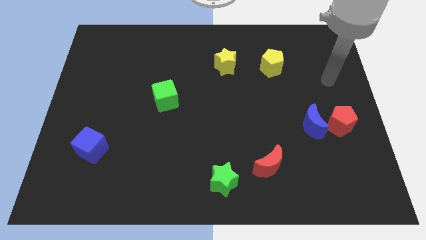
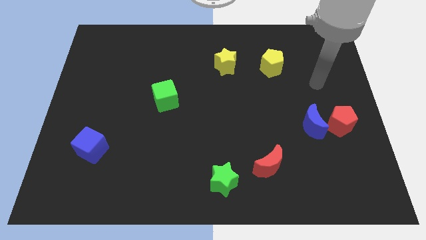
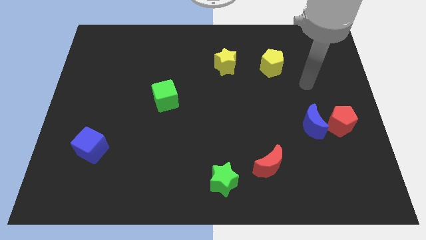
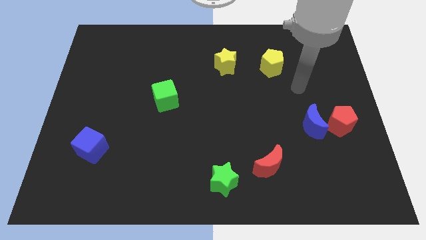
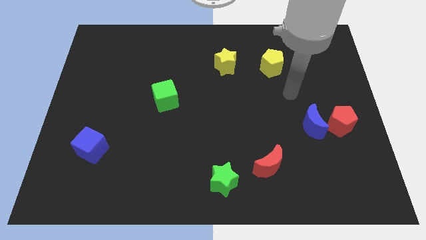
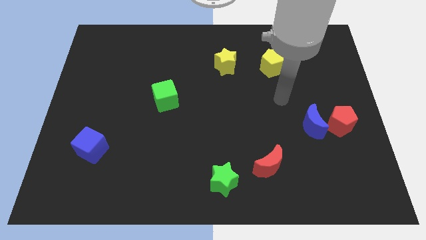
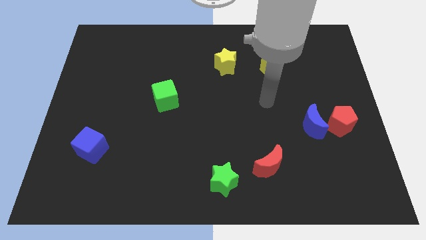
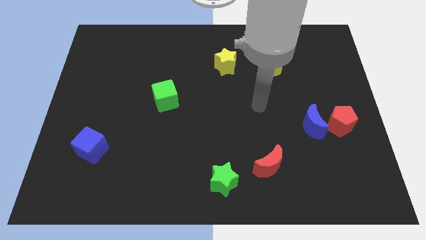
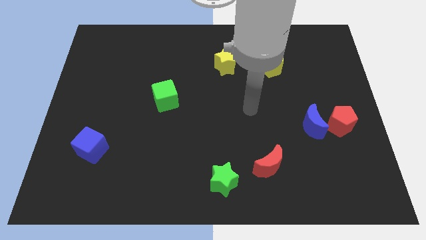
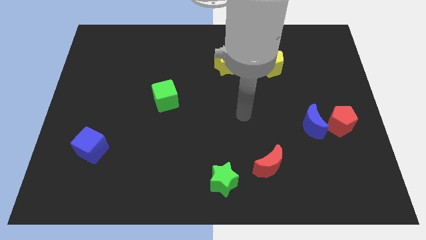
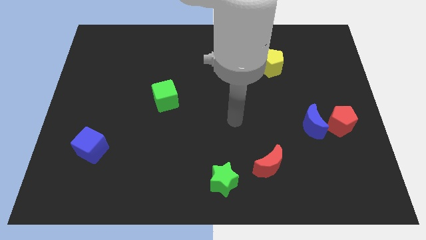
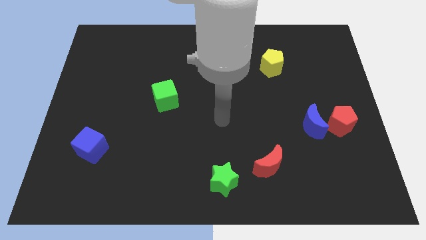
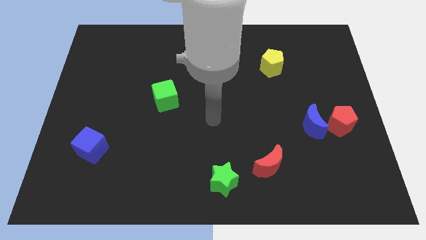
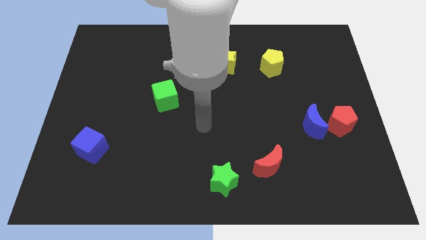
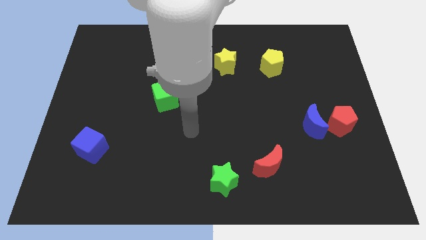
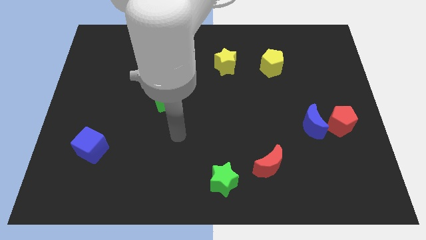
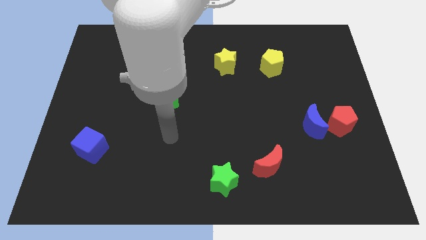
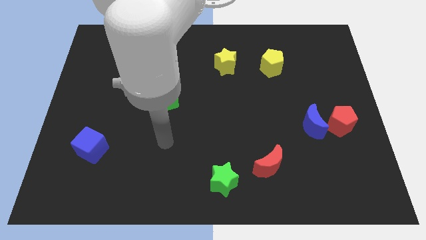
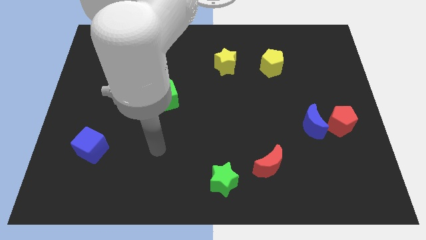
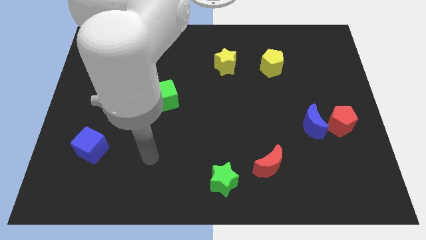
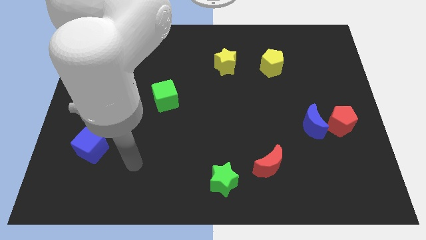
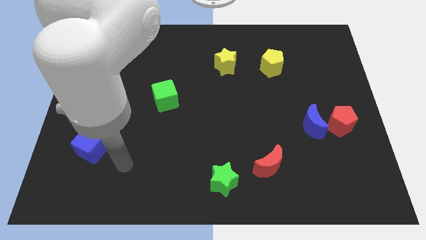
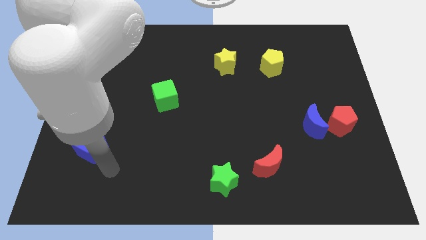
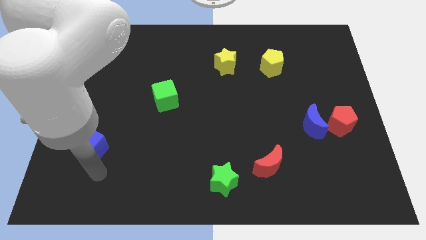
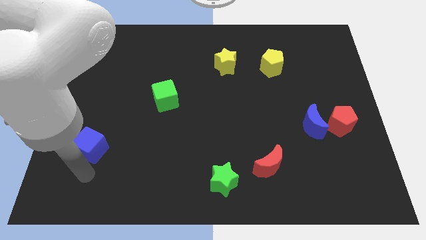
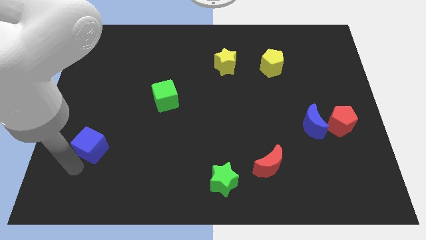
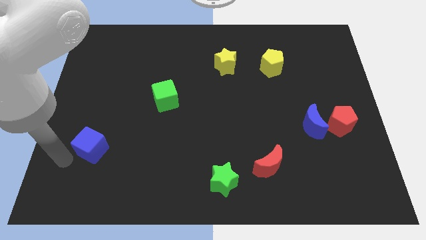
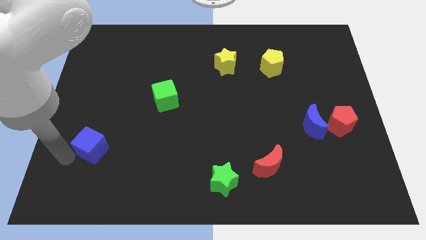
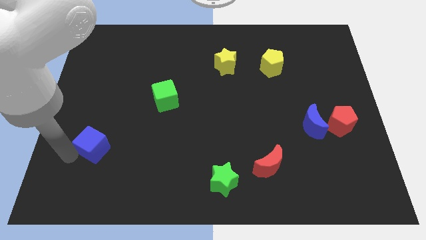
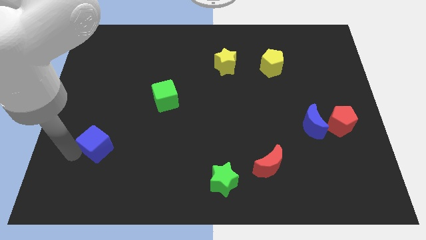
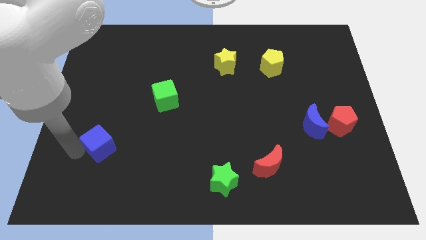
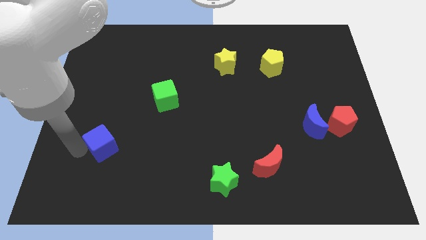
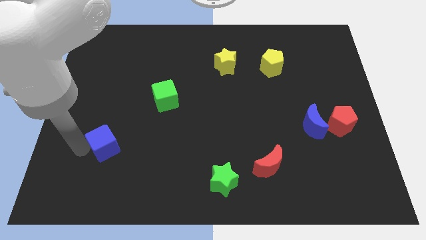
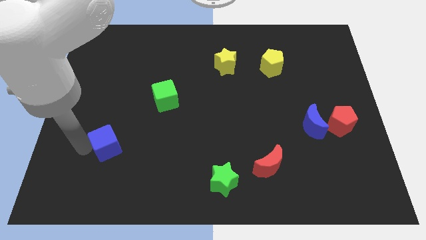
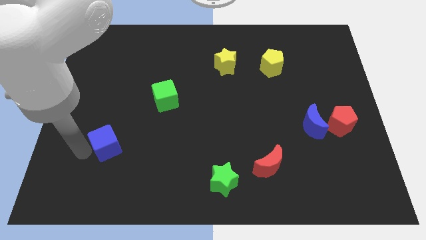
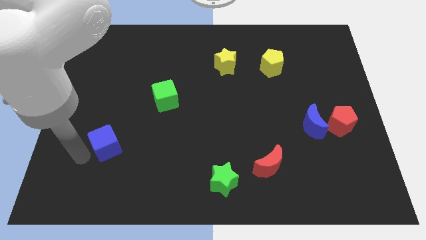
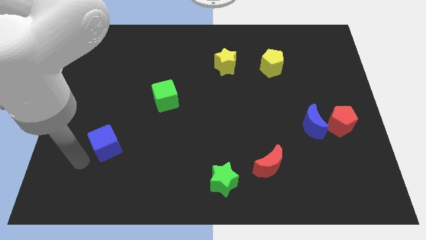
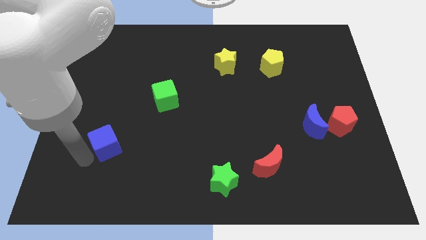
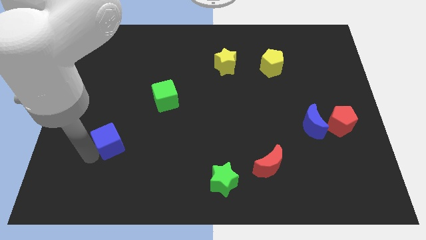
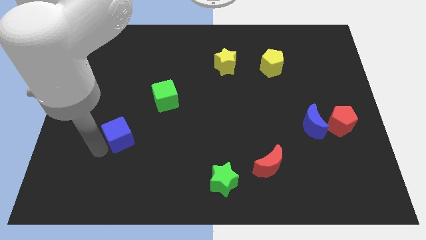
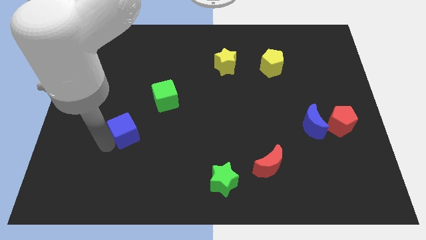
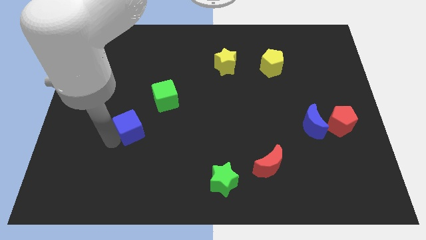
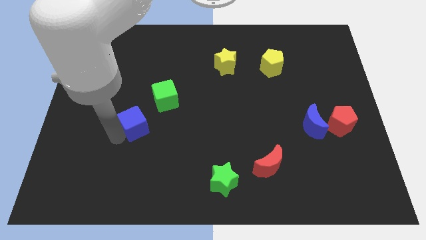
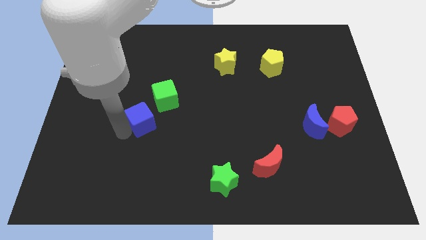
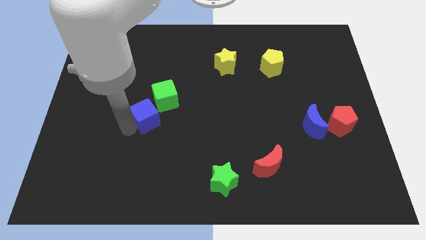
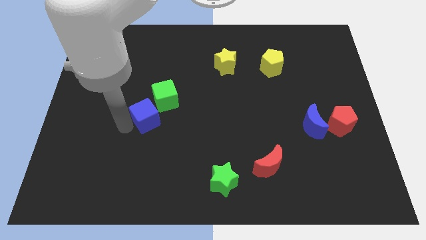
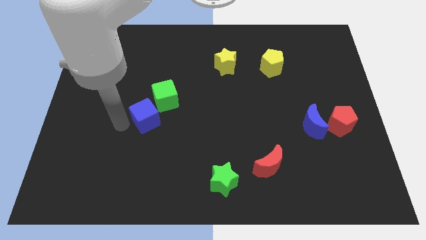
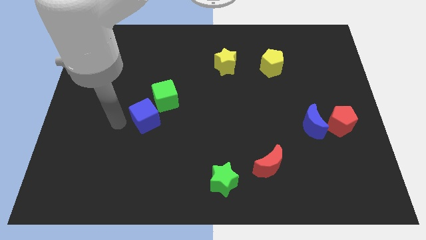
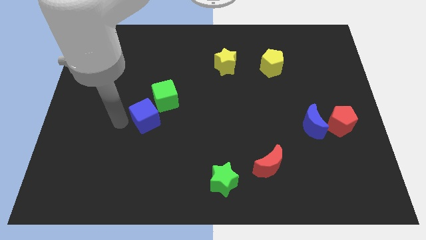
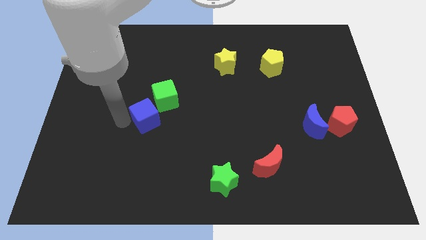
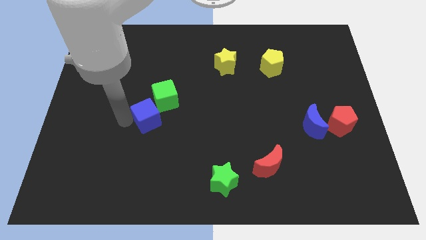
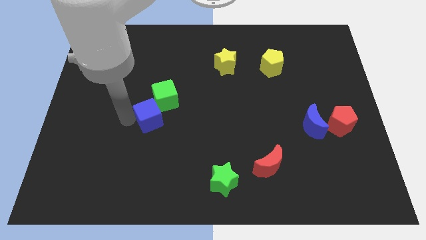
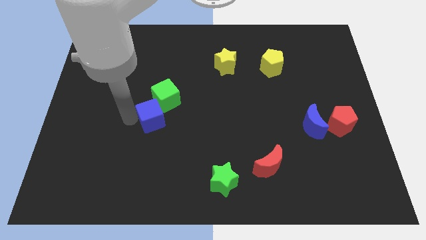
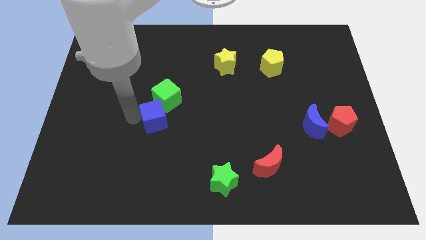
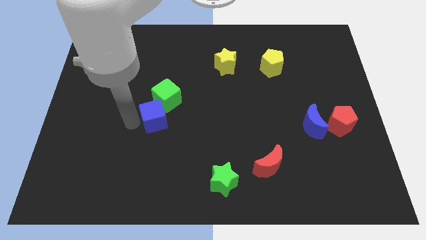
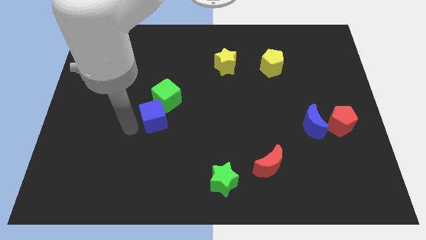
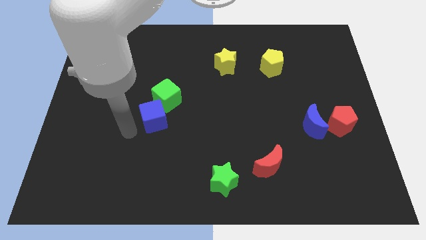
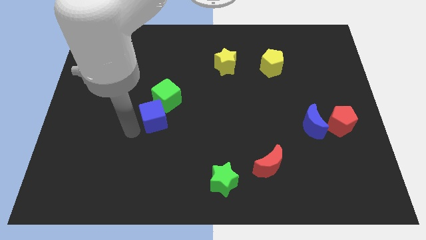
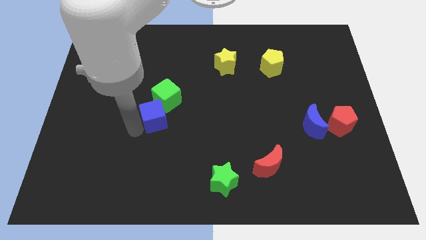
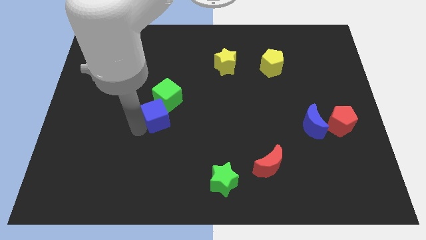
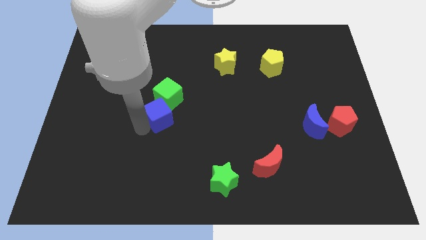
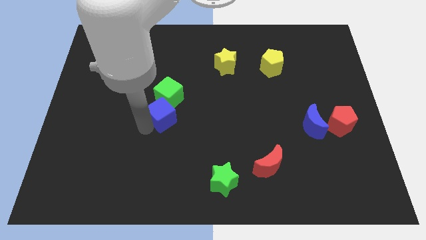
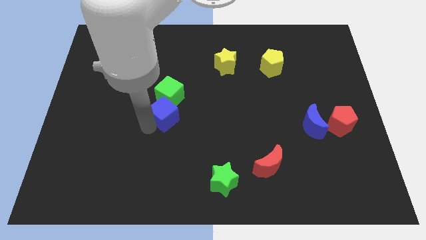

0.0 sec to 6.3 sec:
put the blue cube to the middle

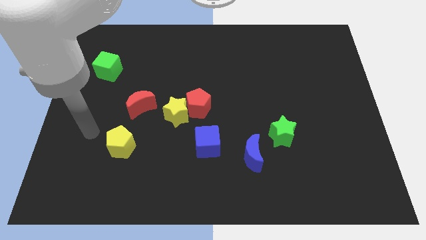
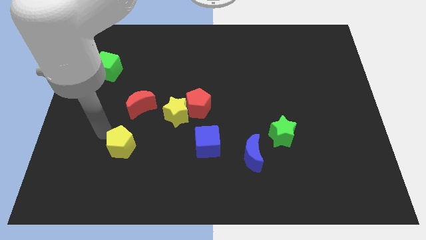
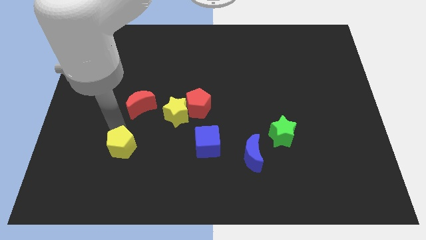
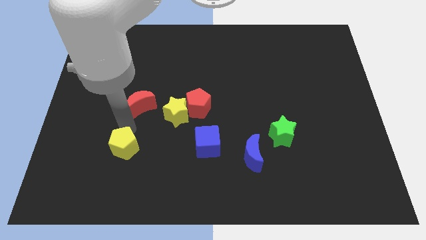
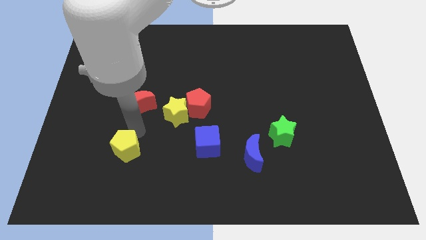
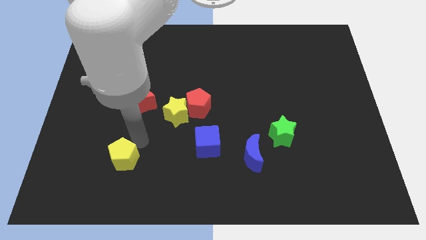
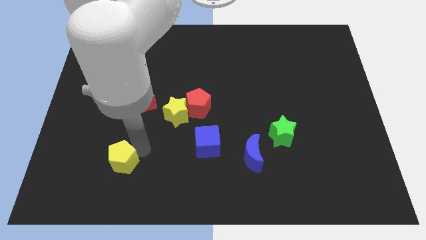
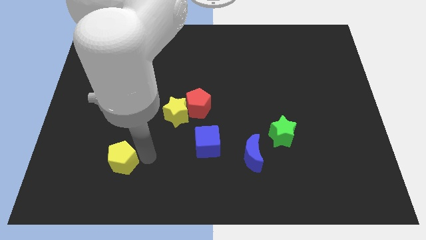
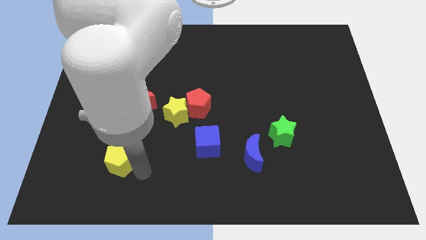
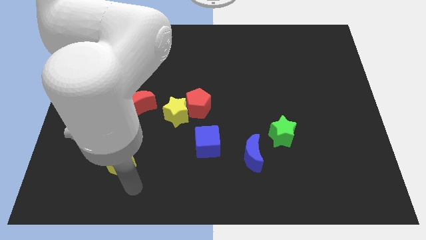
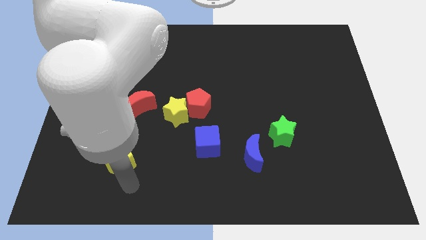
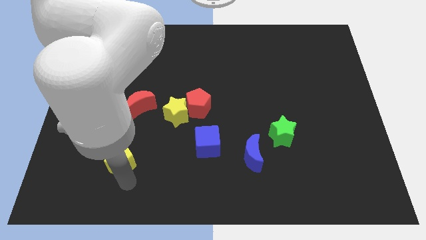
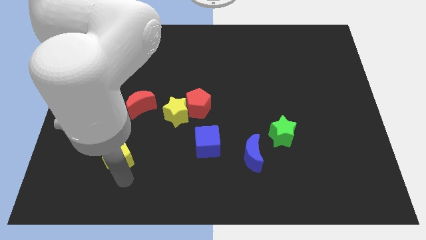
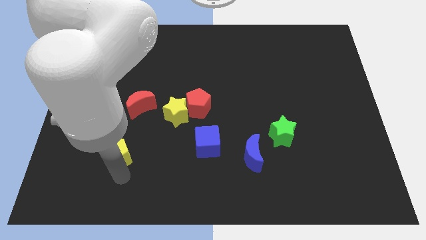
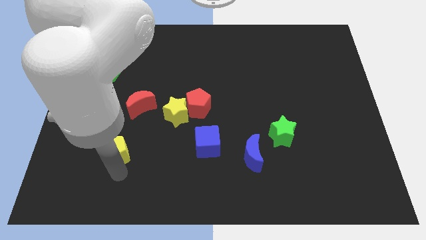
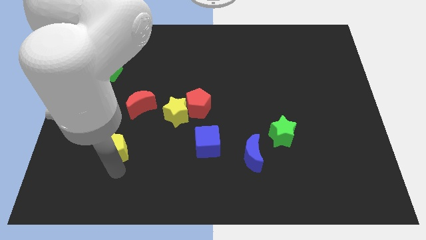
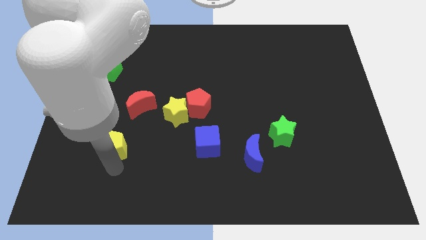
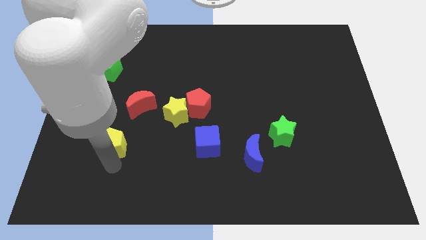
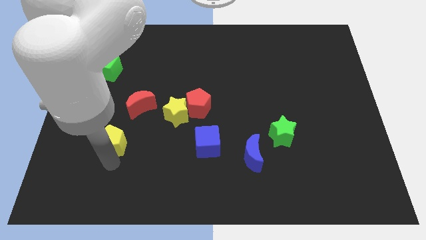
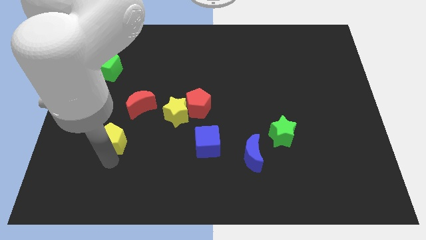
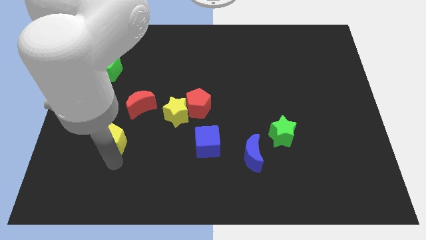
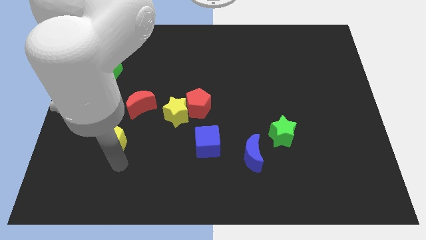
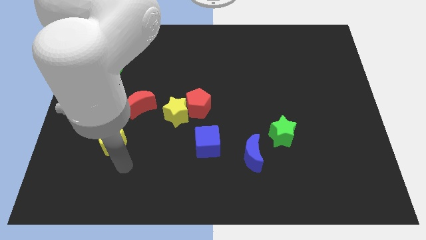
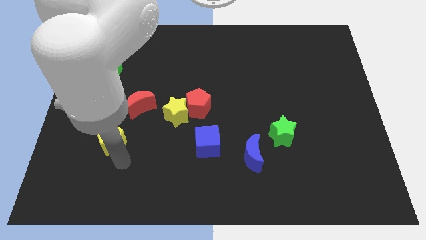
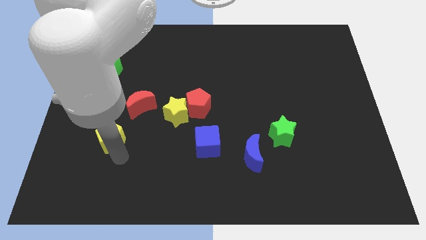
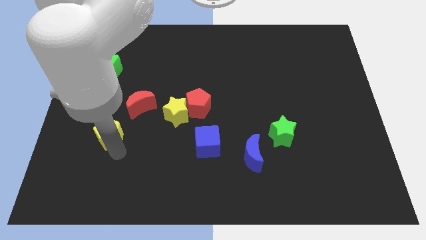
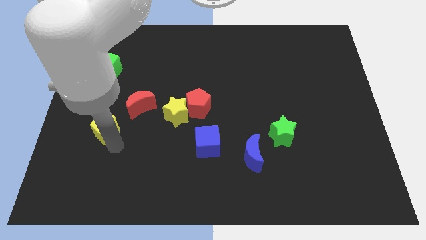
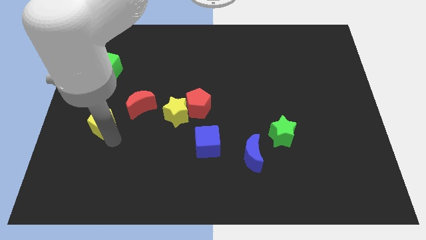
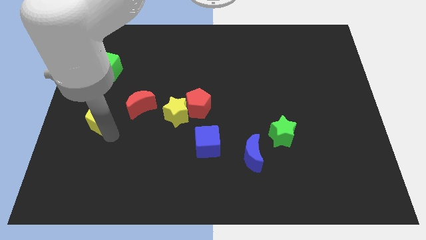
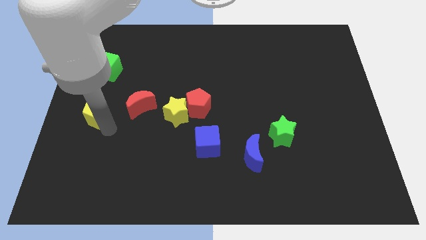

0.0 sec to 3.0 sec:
slide the yellow pentagon to the left side
